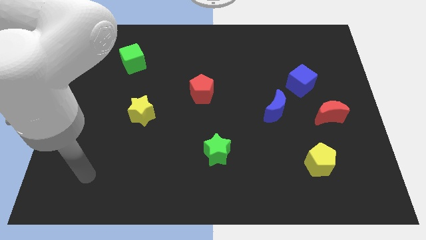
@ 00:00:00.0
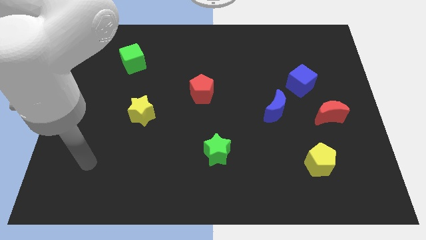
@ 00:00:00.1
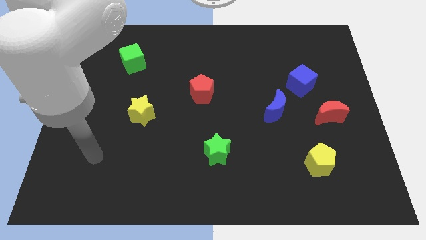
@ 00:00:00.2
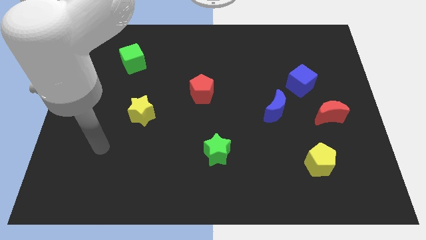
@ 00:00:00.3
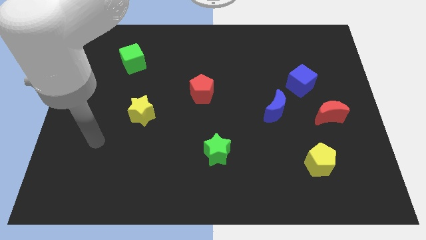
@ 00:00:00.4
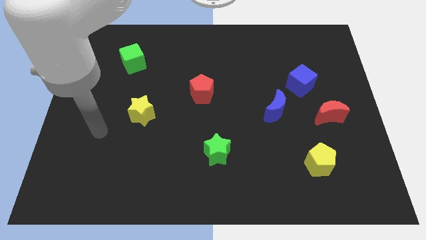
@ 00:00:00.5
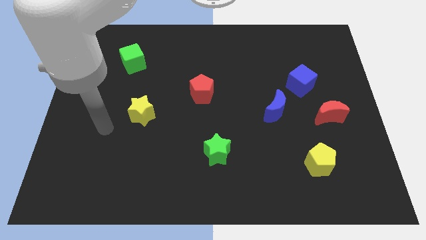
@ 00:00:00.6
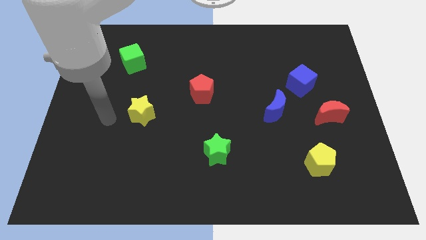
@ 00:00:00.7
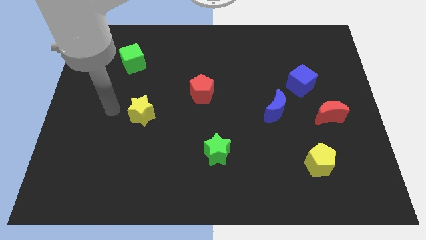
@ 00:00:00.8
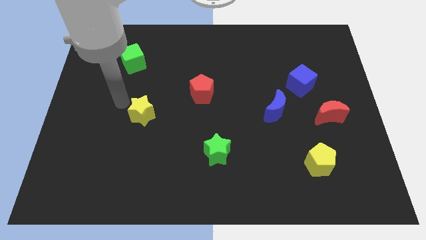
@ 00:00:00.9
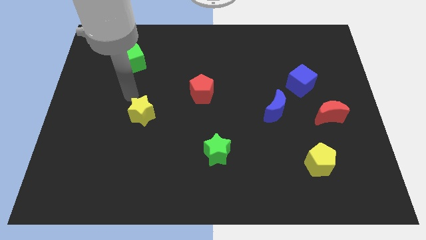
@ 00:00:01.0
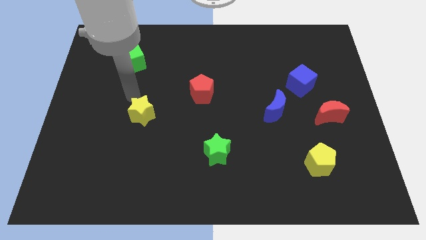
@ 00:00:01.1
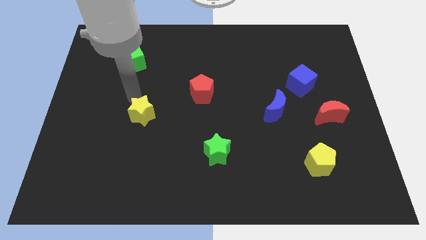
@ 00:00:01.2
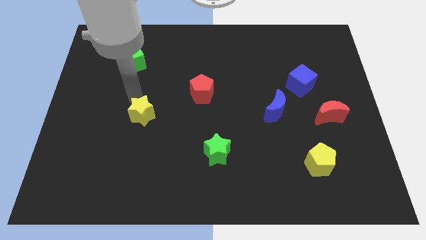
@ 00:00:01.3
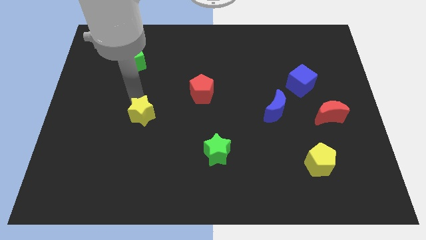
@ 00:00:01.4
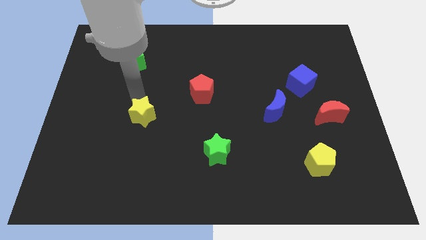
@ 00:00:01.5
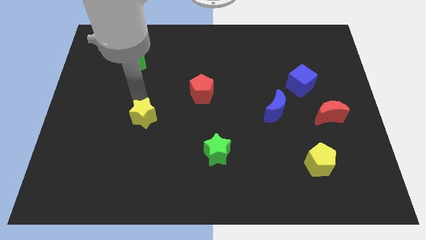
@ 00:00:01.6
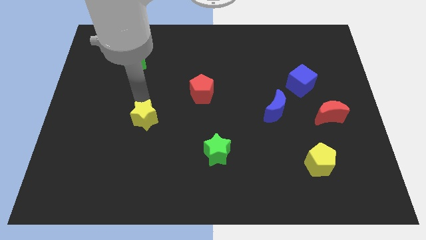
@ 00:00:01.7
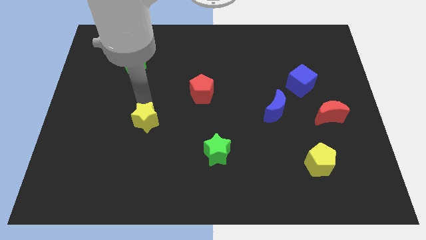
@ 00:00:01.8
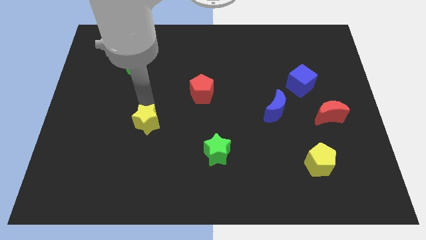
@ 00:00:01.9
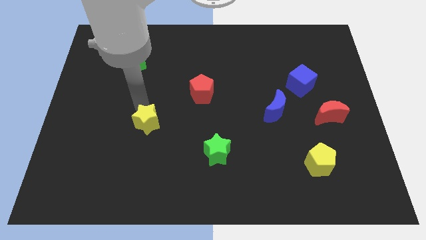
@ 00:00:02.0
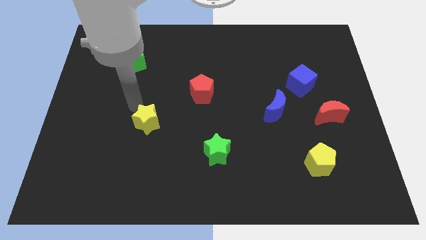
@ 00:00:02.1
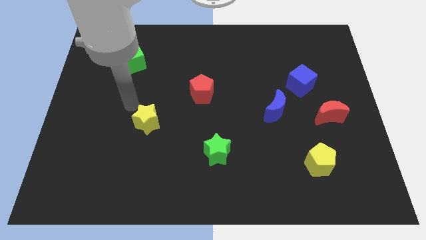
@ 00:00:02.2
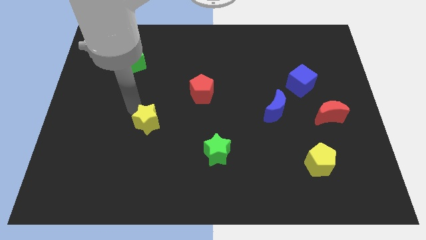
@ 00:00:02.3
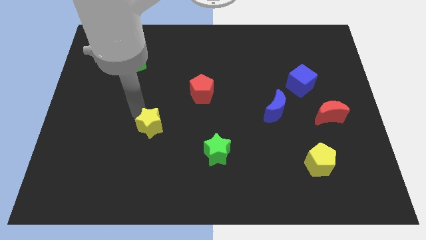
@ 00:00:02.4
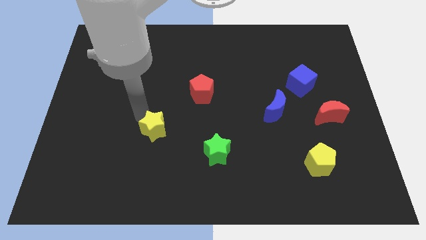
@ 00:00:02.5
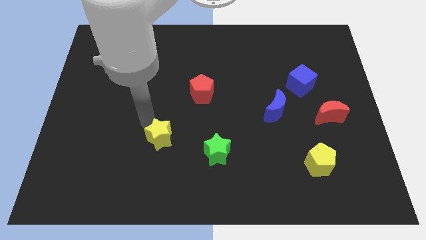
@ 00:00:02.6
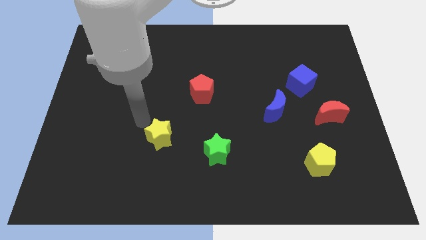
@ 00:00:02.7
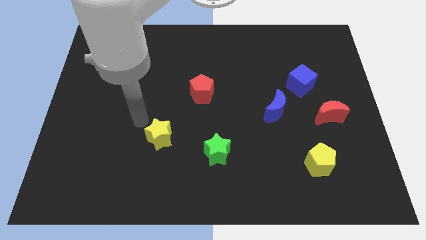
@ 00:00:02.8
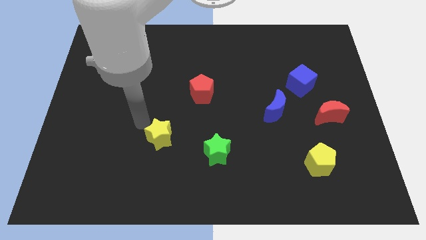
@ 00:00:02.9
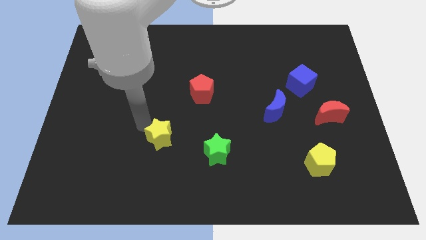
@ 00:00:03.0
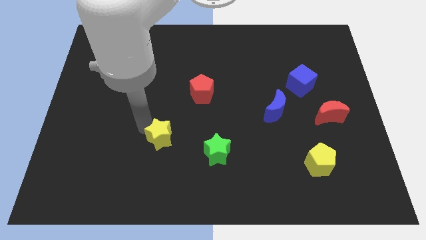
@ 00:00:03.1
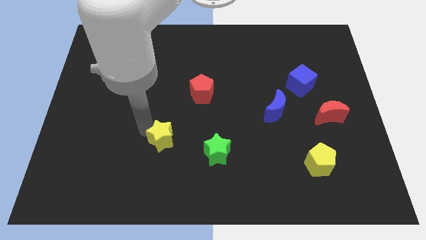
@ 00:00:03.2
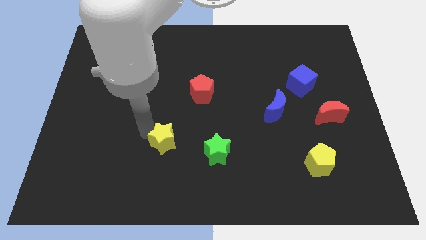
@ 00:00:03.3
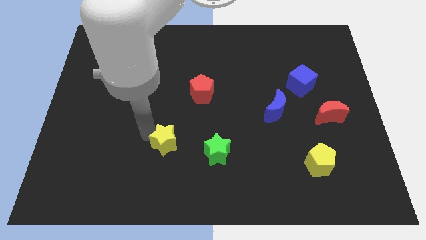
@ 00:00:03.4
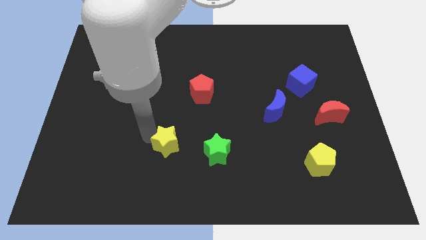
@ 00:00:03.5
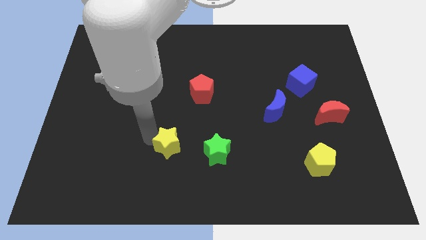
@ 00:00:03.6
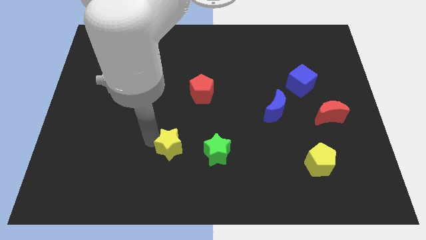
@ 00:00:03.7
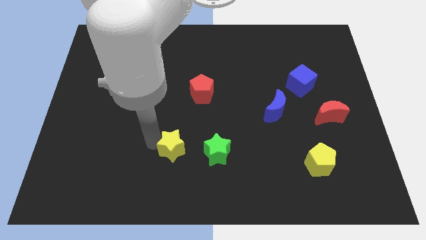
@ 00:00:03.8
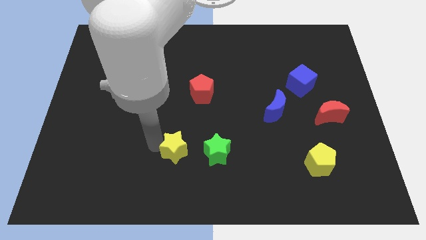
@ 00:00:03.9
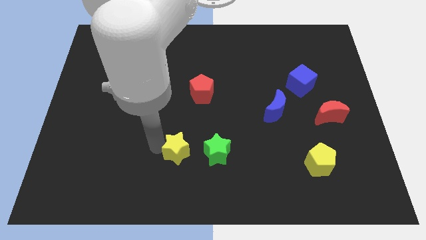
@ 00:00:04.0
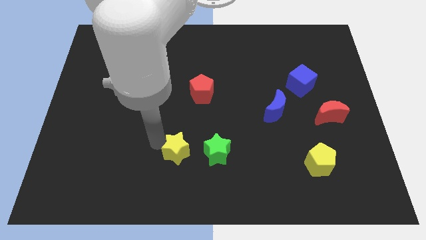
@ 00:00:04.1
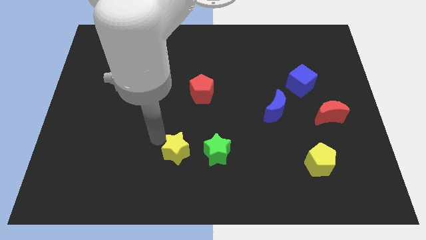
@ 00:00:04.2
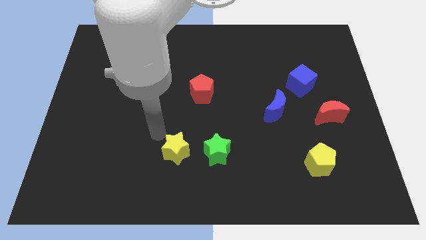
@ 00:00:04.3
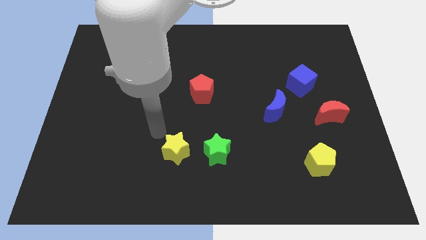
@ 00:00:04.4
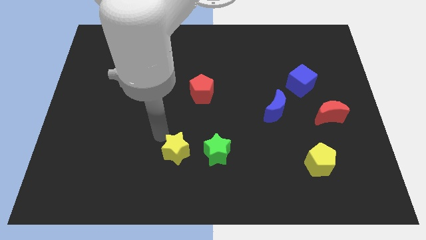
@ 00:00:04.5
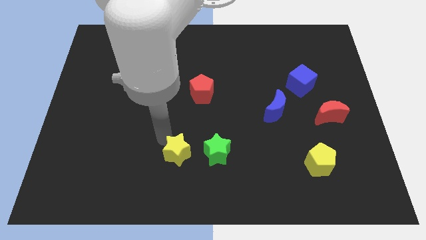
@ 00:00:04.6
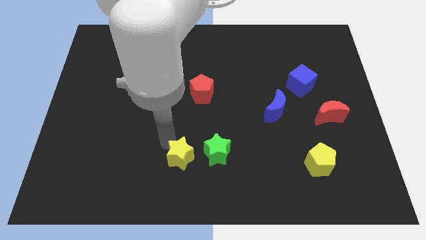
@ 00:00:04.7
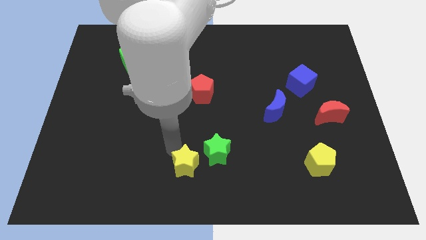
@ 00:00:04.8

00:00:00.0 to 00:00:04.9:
slide the yellow star to the bottom side

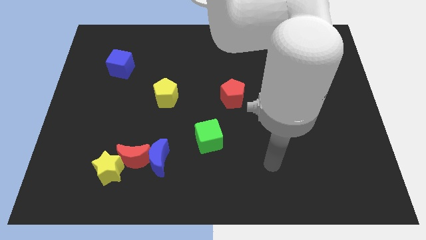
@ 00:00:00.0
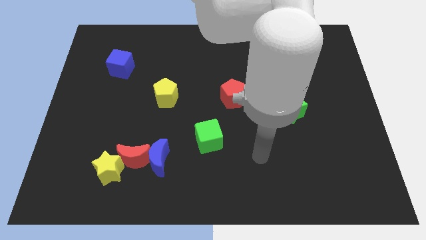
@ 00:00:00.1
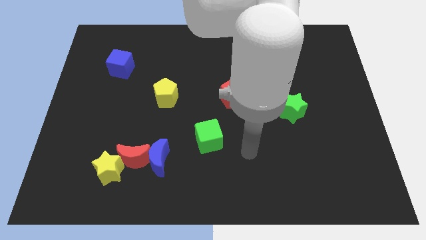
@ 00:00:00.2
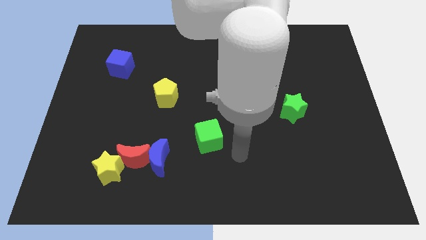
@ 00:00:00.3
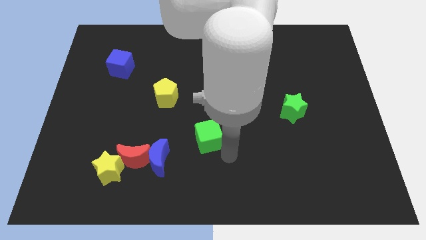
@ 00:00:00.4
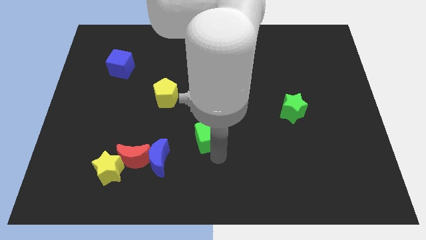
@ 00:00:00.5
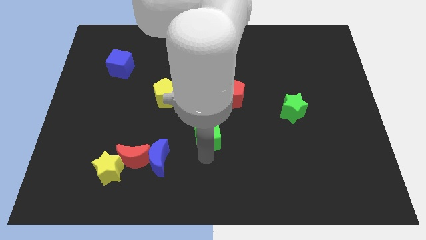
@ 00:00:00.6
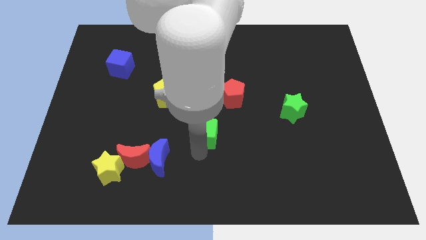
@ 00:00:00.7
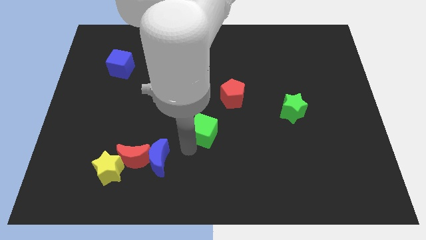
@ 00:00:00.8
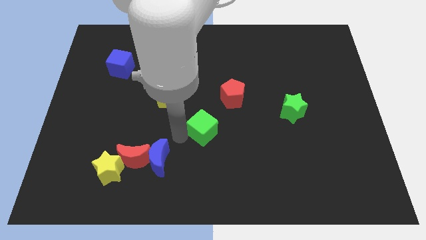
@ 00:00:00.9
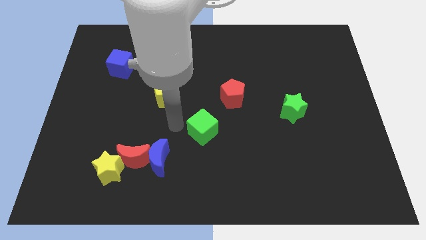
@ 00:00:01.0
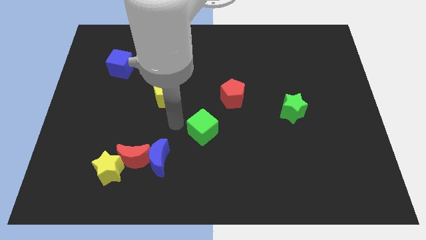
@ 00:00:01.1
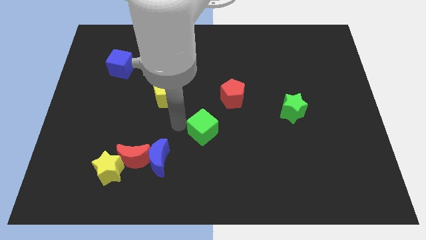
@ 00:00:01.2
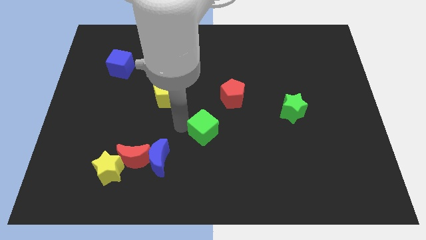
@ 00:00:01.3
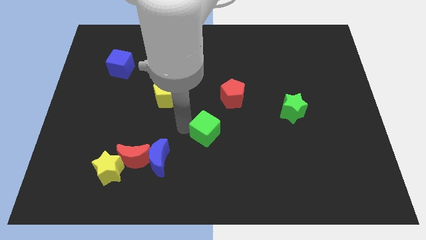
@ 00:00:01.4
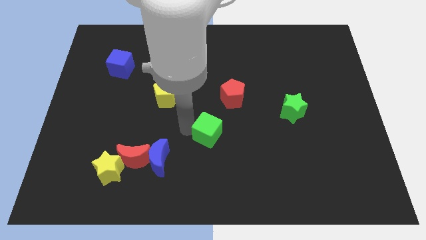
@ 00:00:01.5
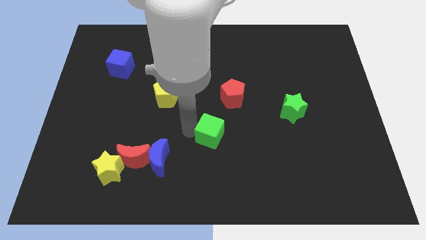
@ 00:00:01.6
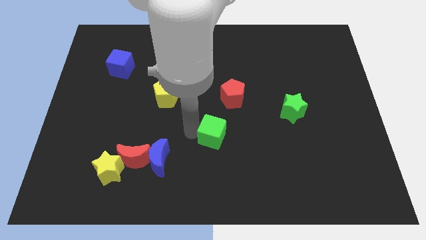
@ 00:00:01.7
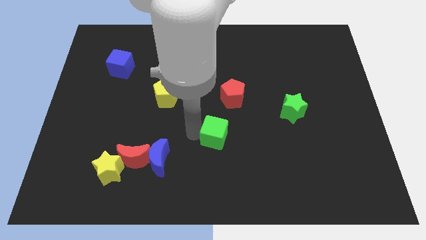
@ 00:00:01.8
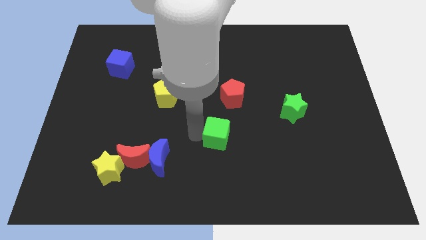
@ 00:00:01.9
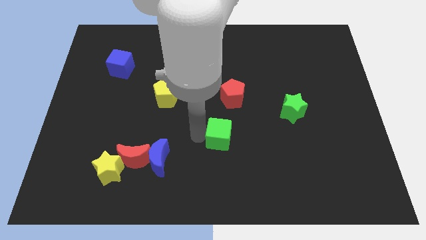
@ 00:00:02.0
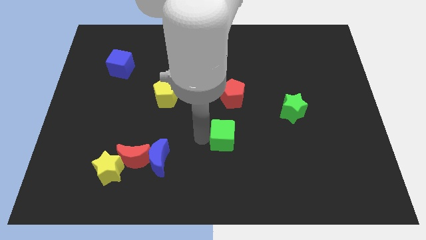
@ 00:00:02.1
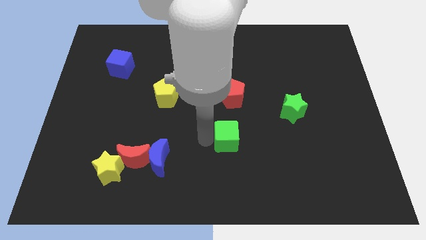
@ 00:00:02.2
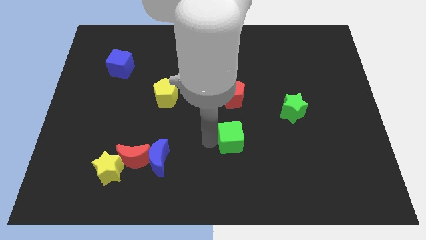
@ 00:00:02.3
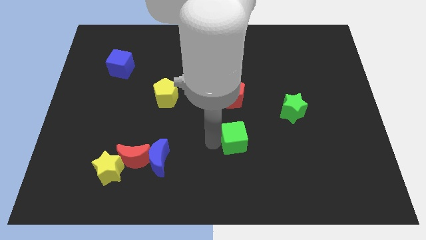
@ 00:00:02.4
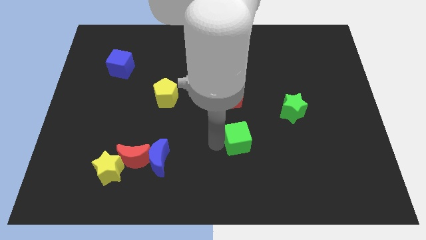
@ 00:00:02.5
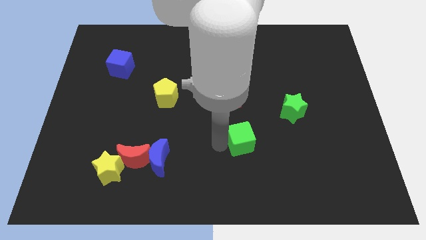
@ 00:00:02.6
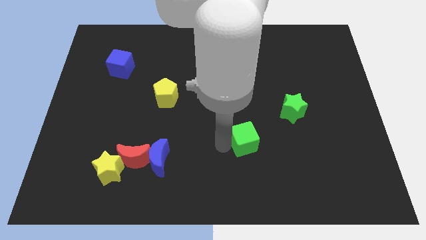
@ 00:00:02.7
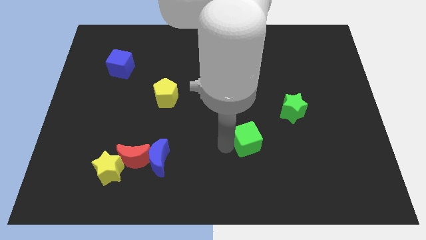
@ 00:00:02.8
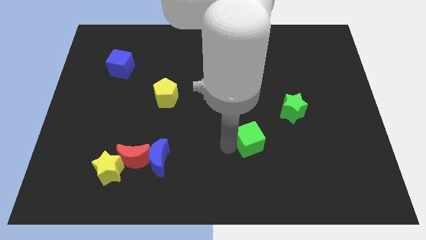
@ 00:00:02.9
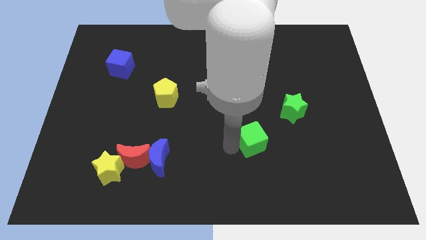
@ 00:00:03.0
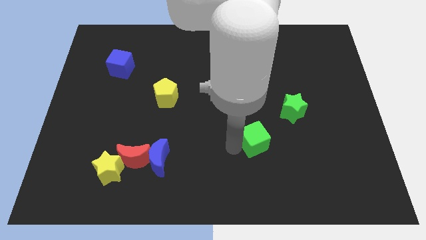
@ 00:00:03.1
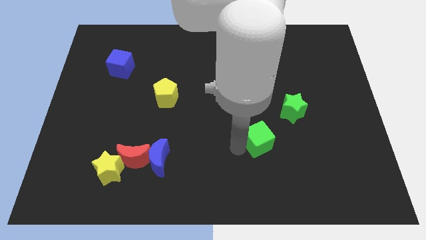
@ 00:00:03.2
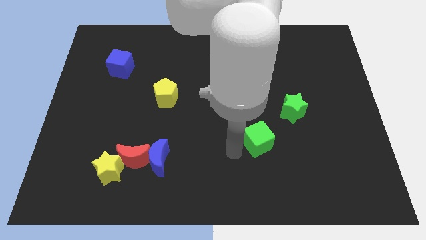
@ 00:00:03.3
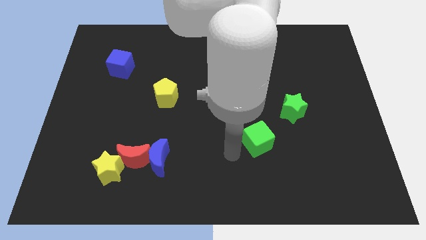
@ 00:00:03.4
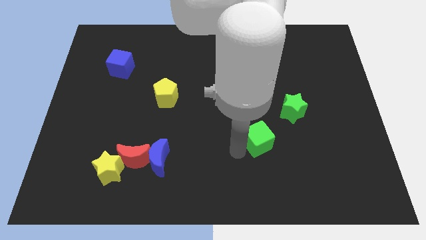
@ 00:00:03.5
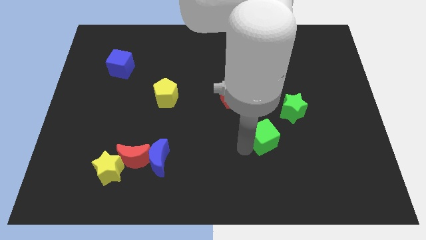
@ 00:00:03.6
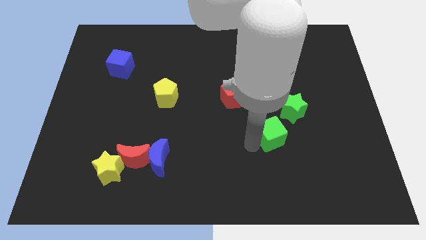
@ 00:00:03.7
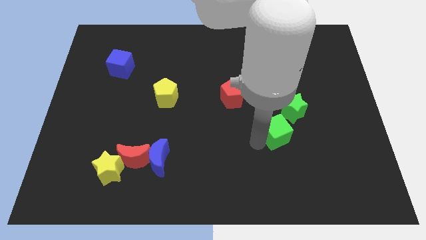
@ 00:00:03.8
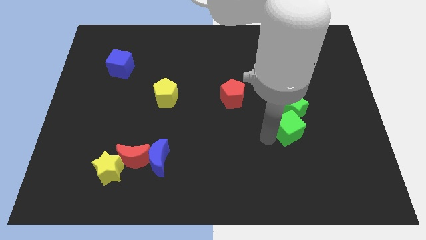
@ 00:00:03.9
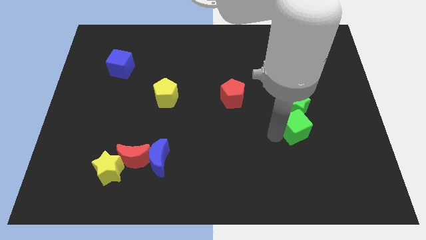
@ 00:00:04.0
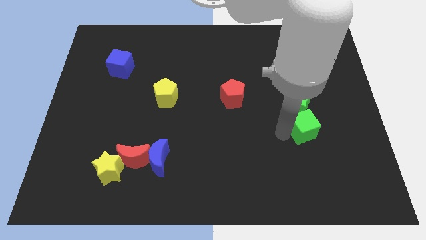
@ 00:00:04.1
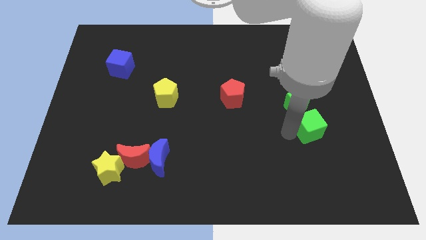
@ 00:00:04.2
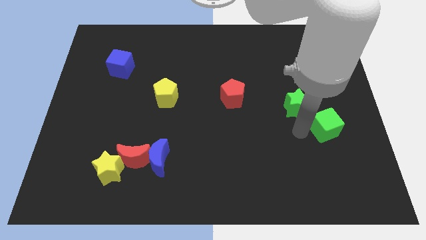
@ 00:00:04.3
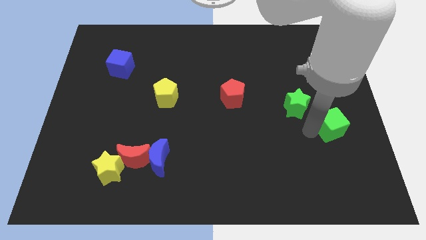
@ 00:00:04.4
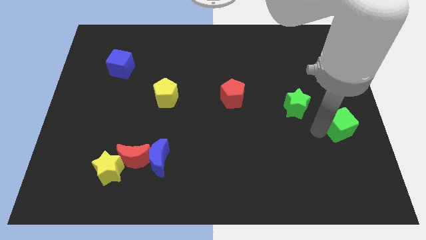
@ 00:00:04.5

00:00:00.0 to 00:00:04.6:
move the green cube to the right side of the board
